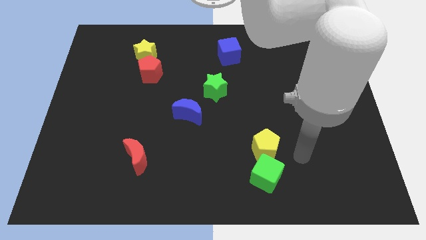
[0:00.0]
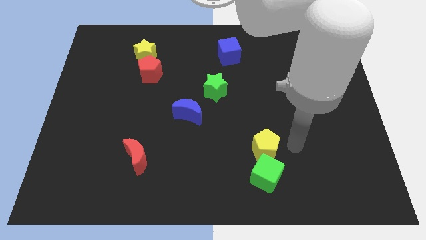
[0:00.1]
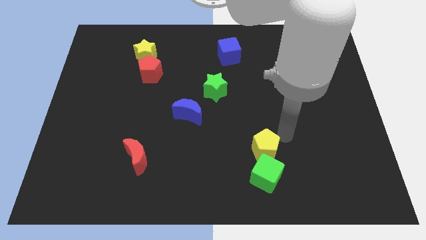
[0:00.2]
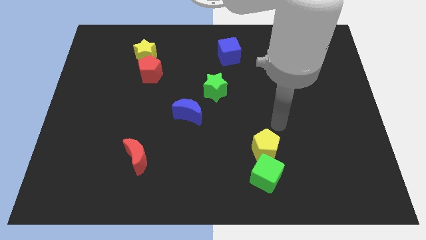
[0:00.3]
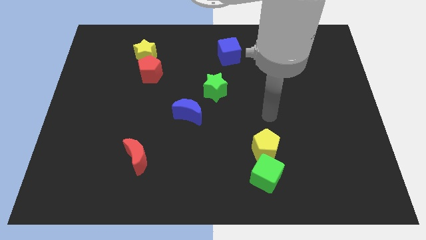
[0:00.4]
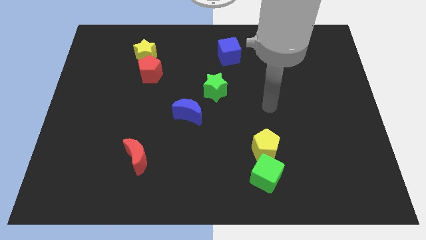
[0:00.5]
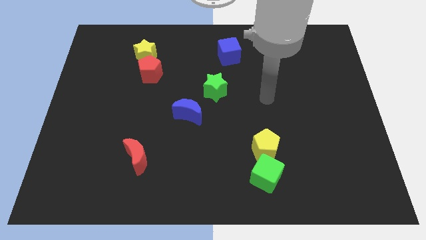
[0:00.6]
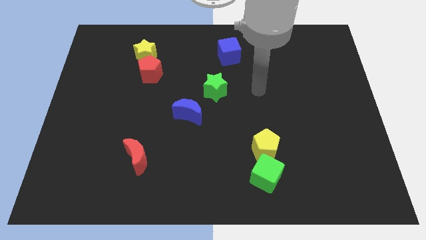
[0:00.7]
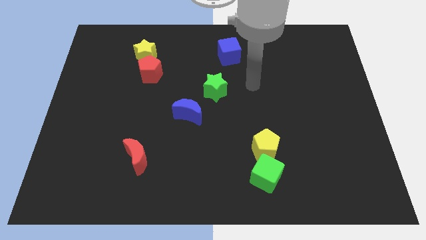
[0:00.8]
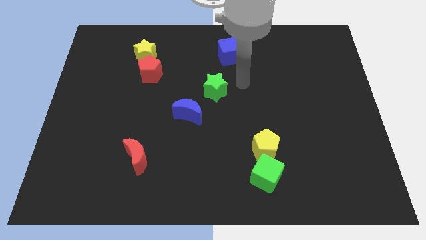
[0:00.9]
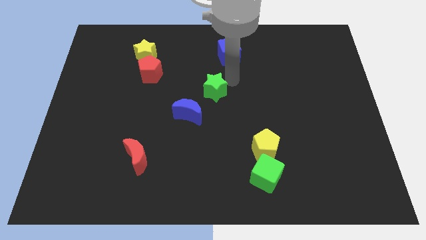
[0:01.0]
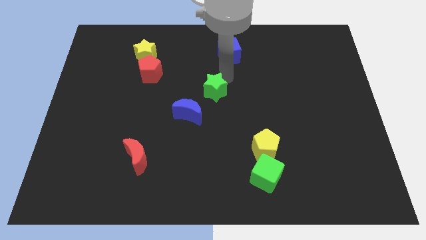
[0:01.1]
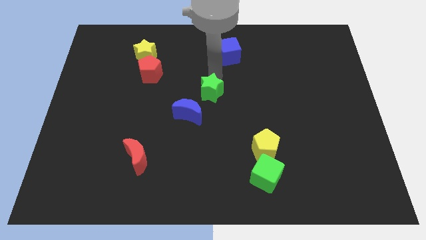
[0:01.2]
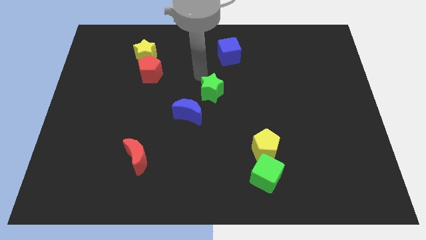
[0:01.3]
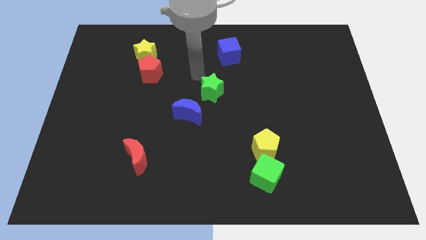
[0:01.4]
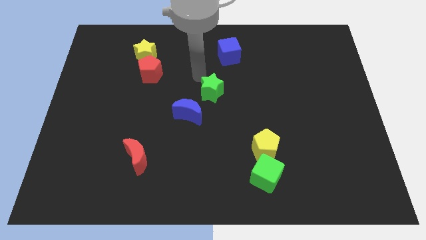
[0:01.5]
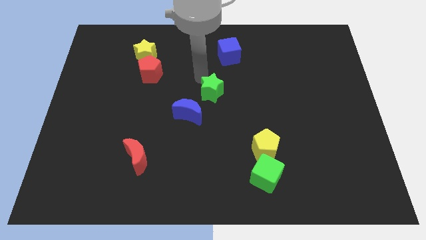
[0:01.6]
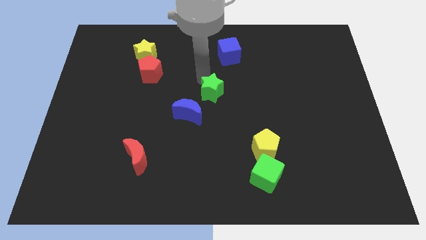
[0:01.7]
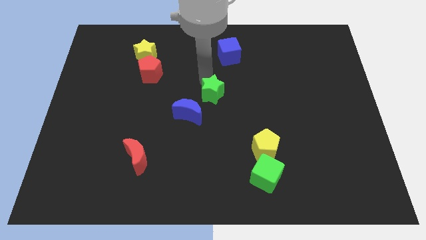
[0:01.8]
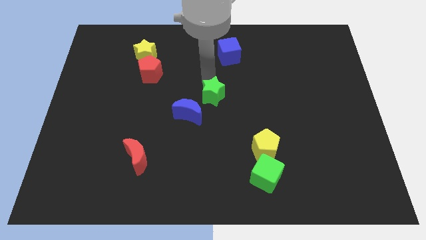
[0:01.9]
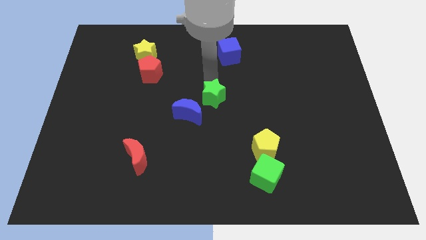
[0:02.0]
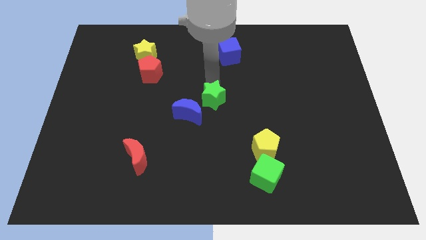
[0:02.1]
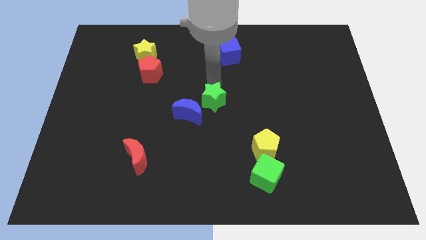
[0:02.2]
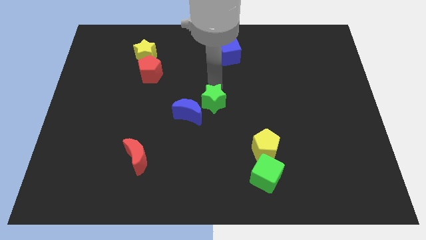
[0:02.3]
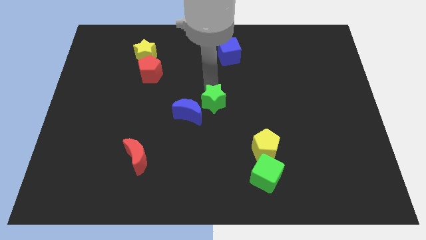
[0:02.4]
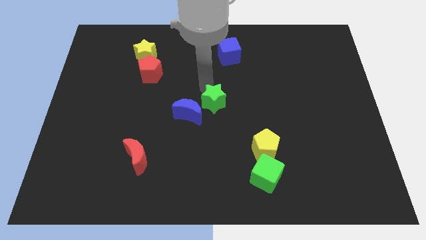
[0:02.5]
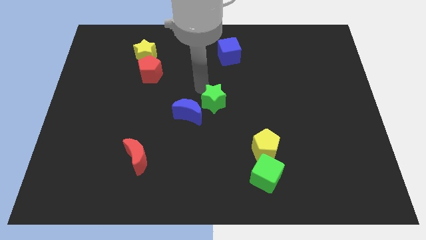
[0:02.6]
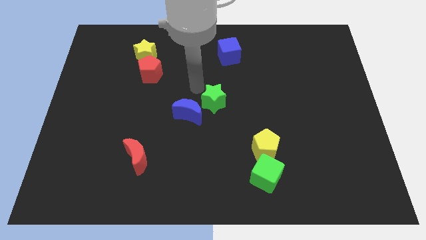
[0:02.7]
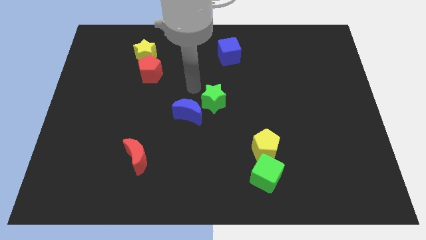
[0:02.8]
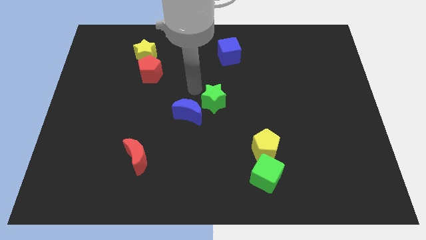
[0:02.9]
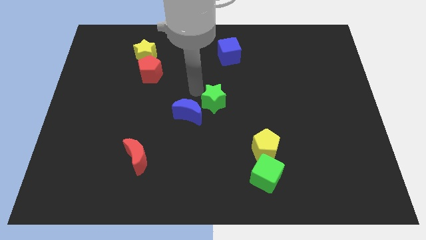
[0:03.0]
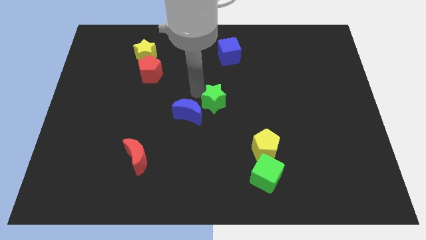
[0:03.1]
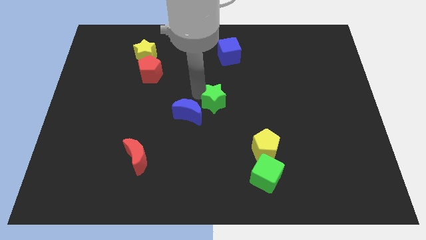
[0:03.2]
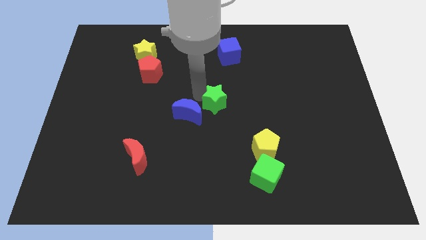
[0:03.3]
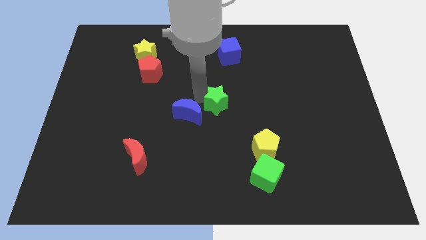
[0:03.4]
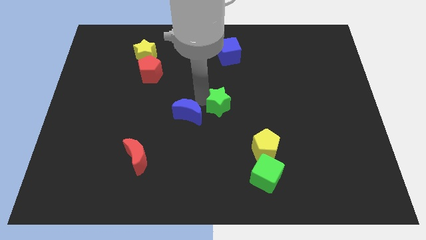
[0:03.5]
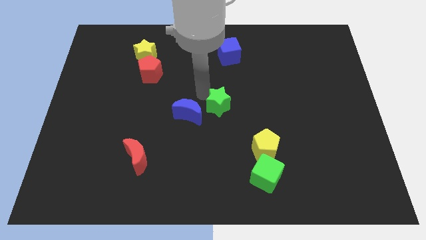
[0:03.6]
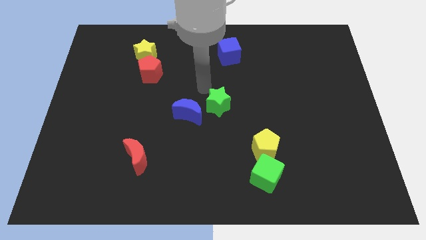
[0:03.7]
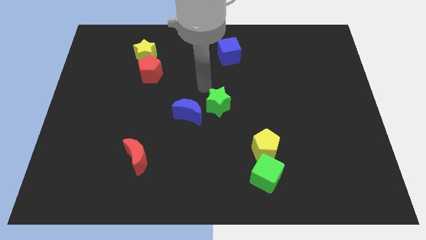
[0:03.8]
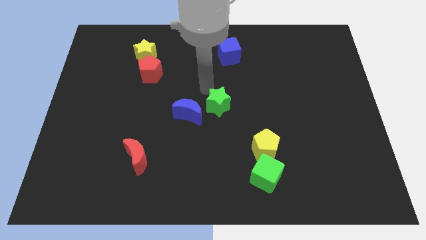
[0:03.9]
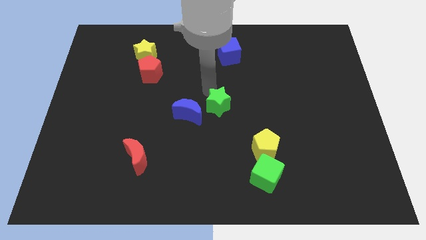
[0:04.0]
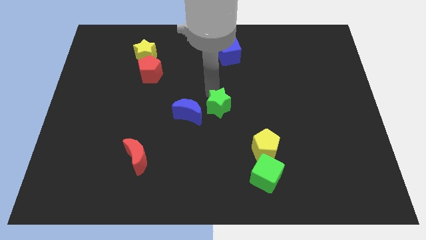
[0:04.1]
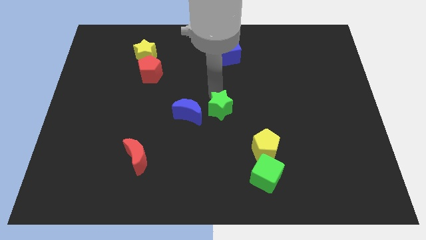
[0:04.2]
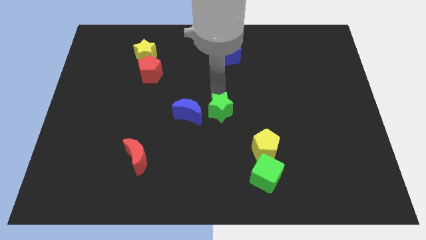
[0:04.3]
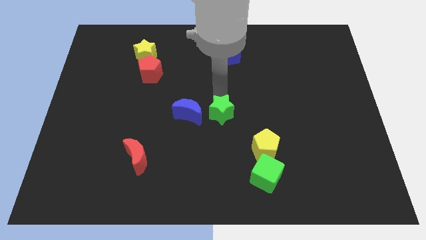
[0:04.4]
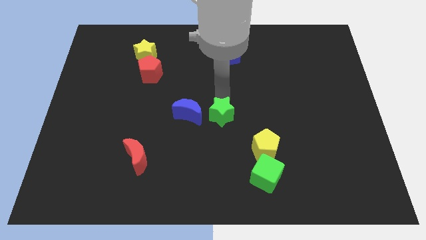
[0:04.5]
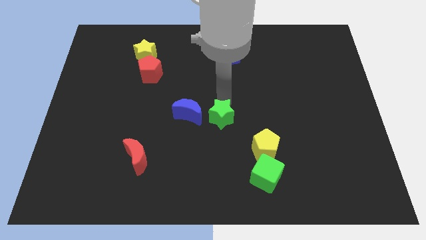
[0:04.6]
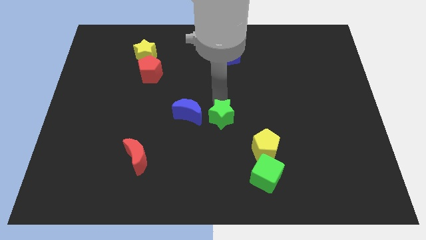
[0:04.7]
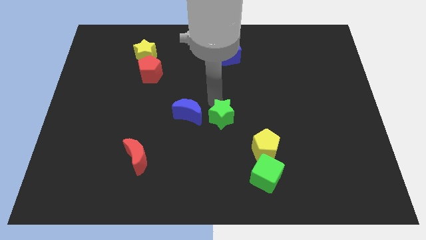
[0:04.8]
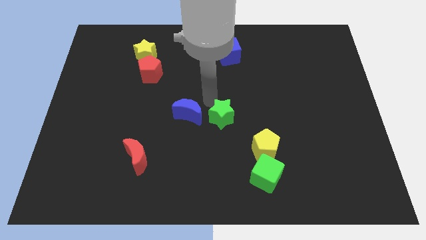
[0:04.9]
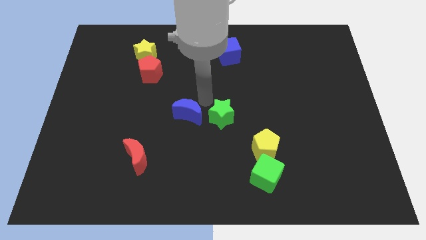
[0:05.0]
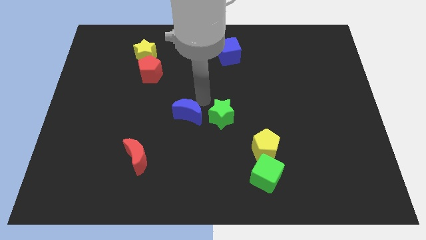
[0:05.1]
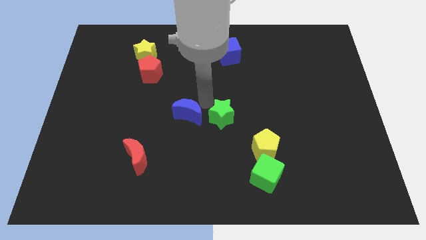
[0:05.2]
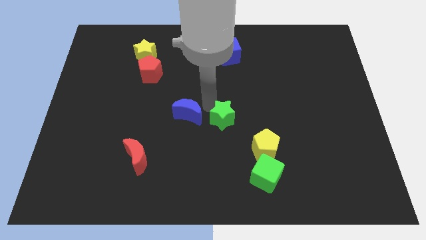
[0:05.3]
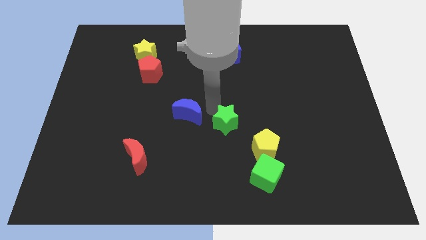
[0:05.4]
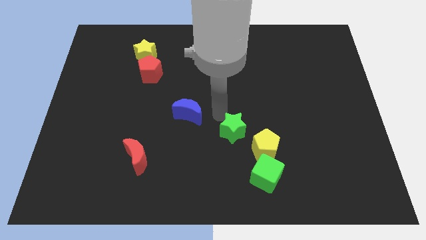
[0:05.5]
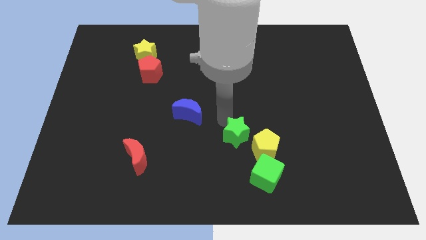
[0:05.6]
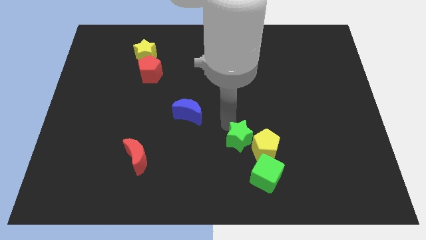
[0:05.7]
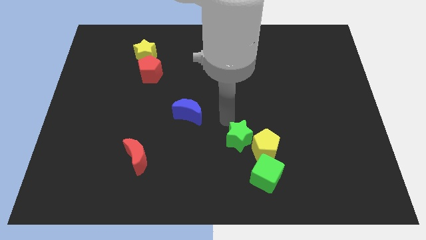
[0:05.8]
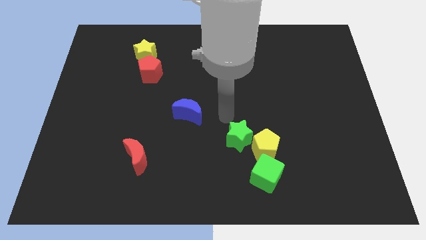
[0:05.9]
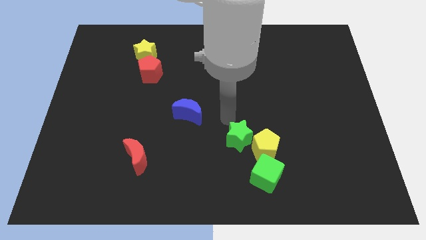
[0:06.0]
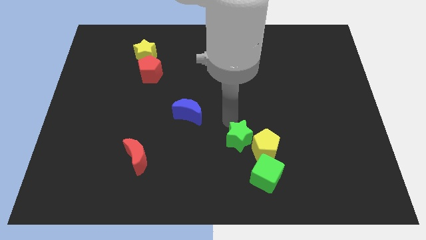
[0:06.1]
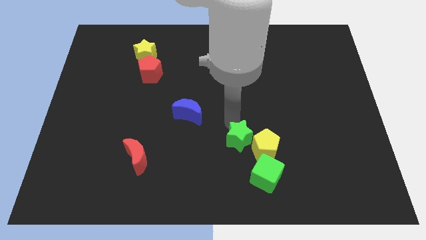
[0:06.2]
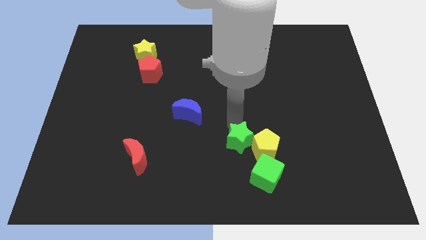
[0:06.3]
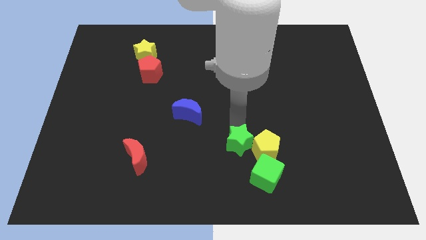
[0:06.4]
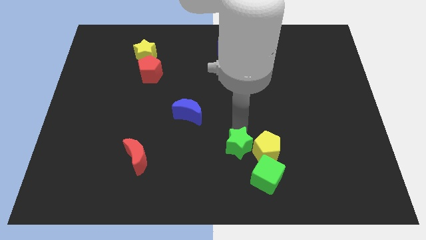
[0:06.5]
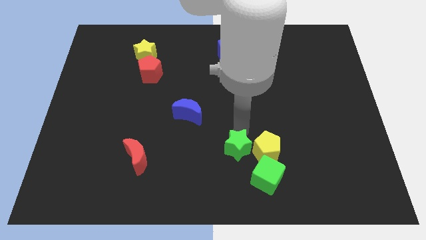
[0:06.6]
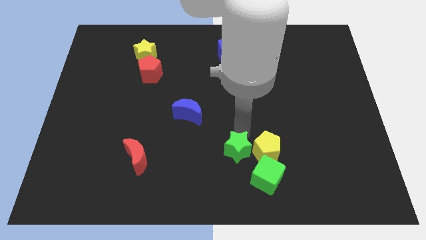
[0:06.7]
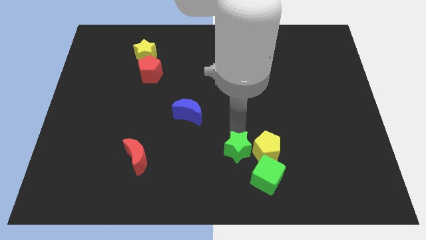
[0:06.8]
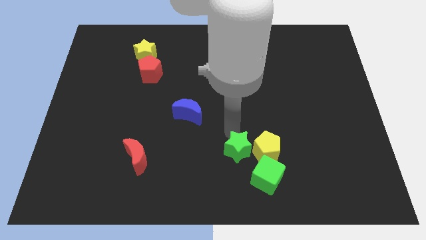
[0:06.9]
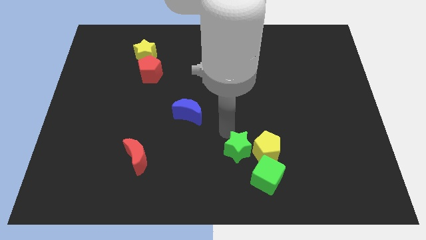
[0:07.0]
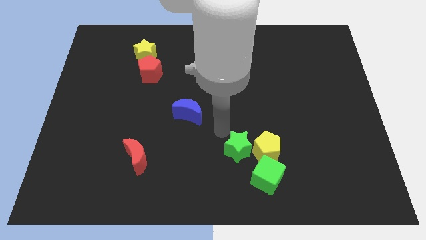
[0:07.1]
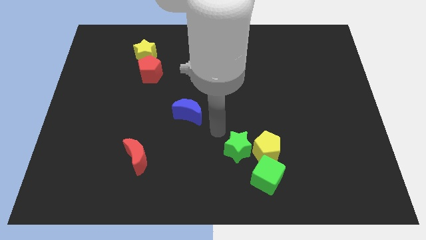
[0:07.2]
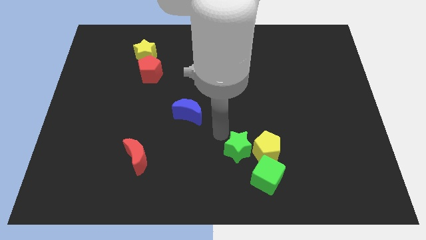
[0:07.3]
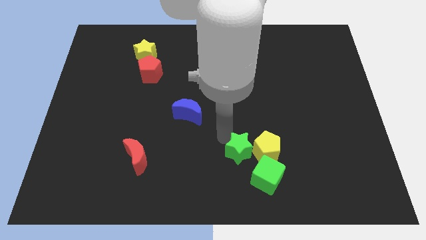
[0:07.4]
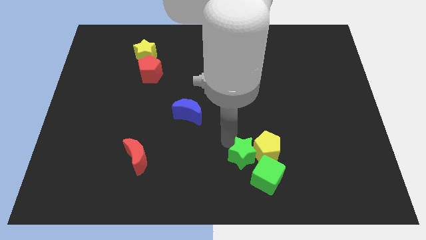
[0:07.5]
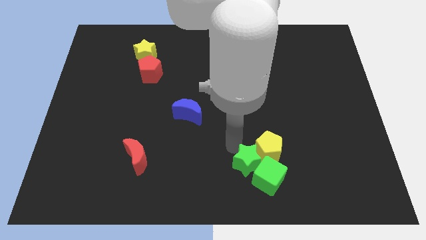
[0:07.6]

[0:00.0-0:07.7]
slide the green star to the green cube
